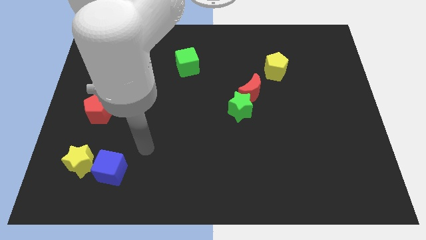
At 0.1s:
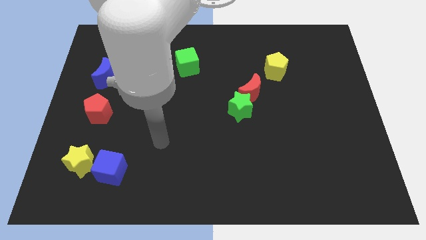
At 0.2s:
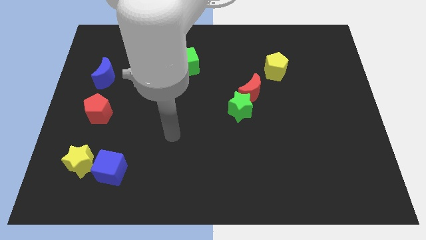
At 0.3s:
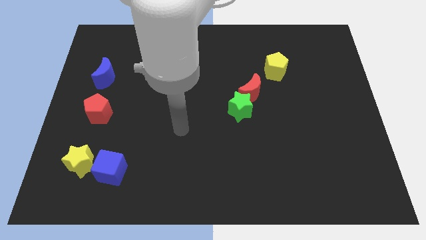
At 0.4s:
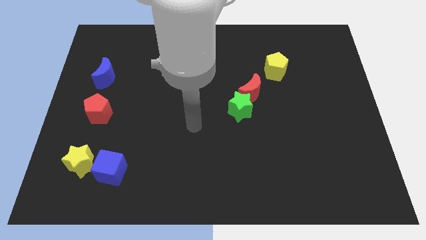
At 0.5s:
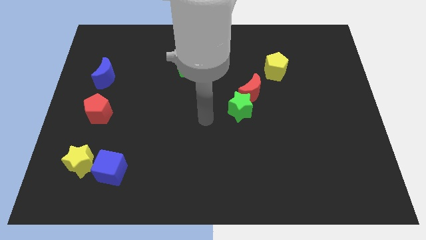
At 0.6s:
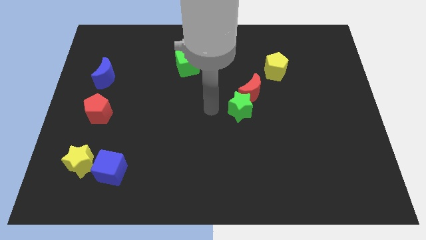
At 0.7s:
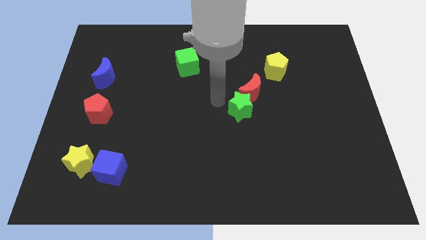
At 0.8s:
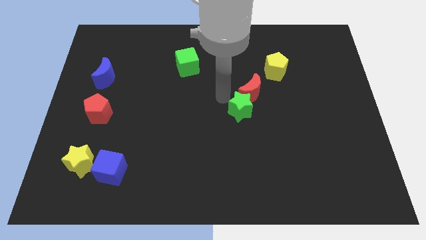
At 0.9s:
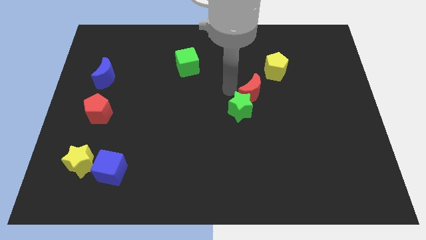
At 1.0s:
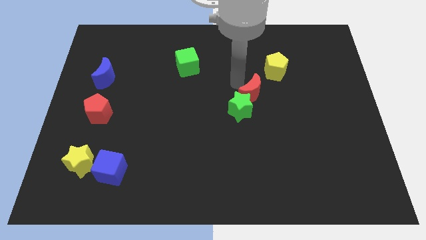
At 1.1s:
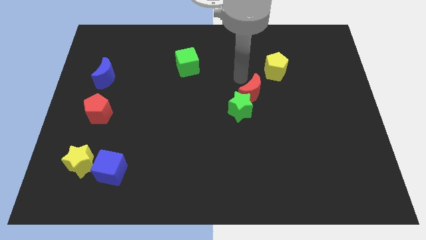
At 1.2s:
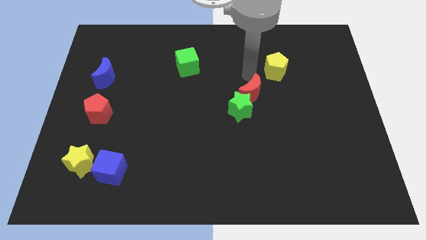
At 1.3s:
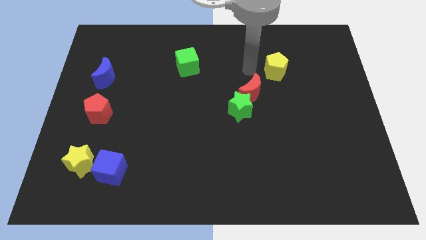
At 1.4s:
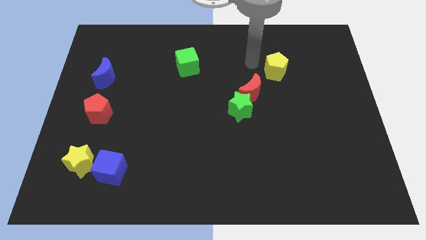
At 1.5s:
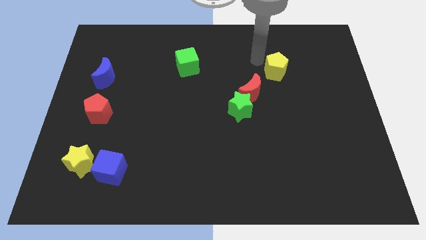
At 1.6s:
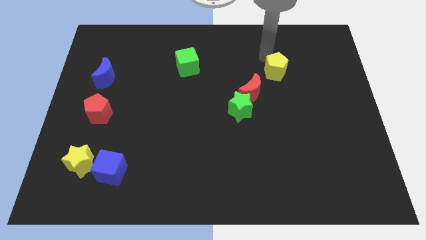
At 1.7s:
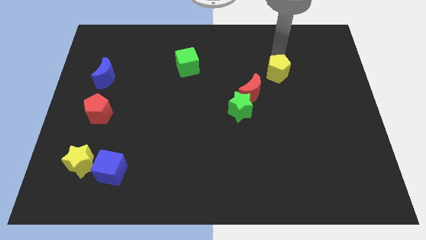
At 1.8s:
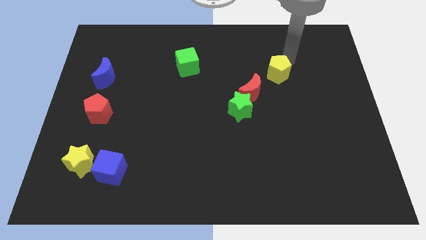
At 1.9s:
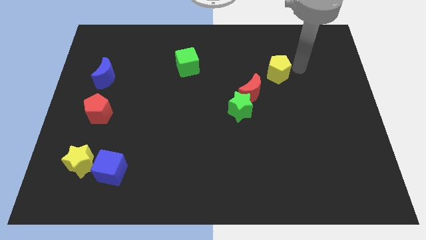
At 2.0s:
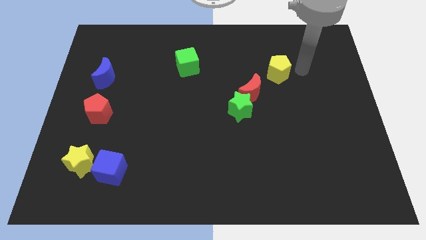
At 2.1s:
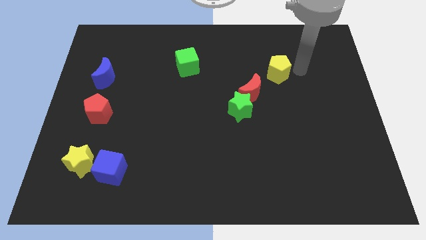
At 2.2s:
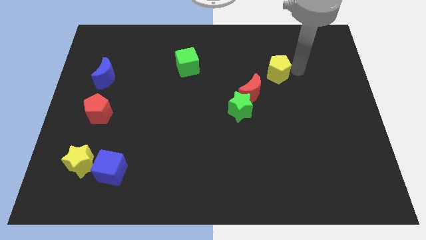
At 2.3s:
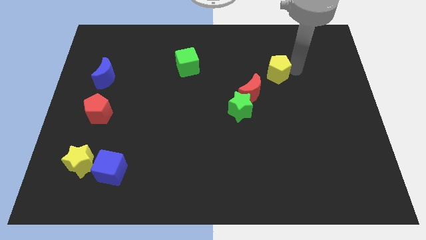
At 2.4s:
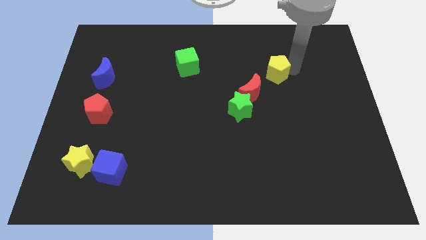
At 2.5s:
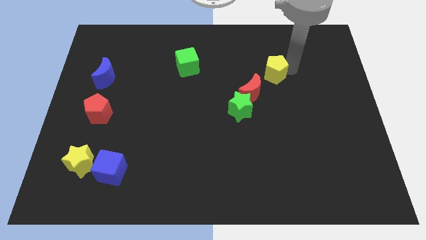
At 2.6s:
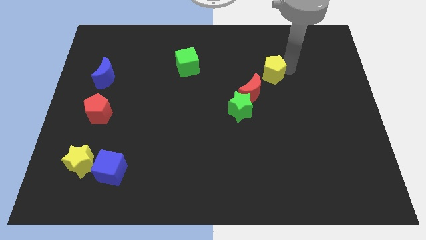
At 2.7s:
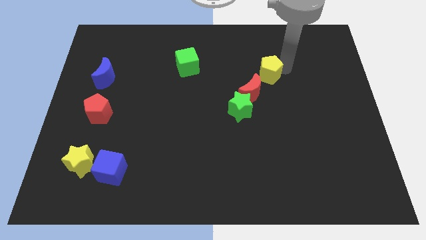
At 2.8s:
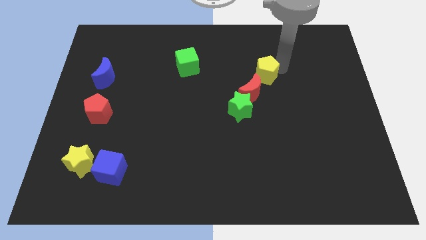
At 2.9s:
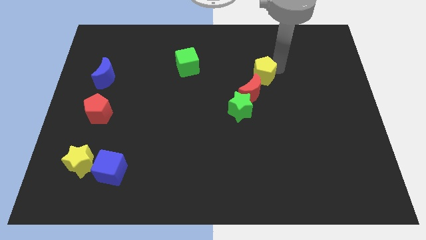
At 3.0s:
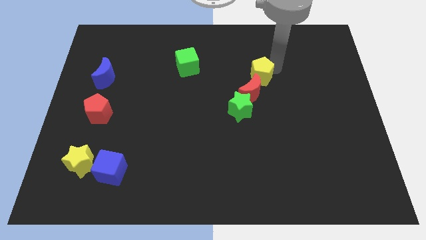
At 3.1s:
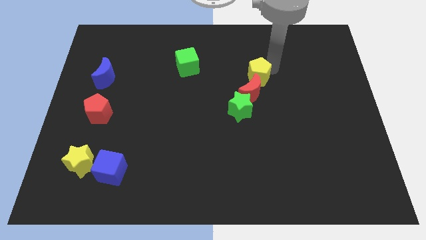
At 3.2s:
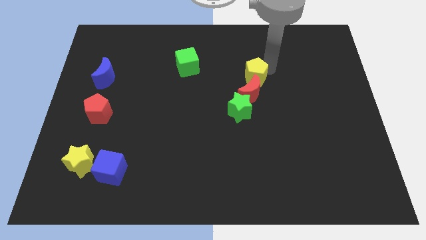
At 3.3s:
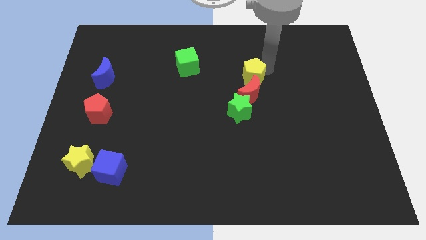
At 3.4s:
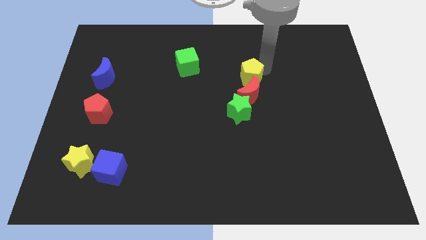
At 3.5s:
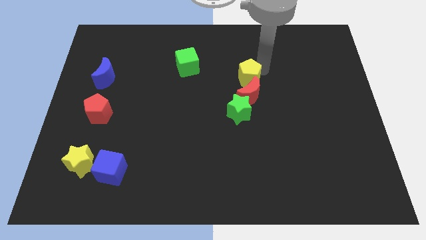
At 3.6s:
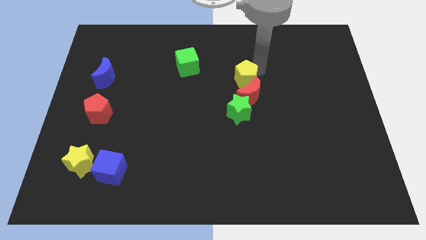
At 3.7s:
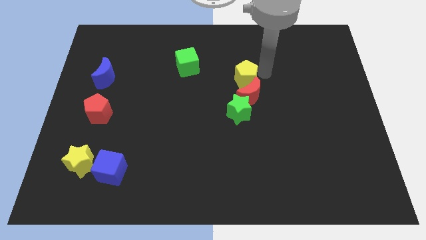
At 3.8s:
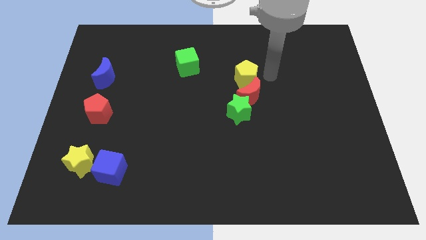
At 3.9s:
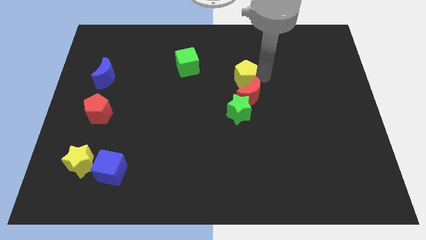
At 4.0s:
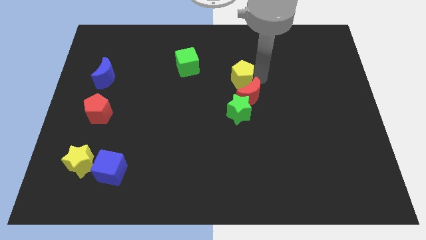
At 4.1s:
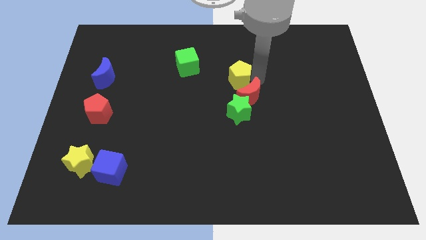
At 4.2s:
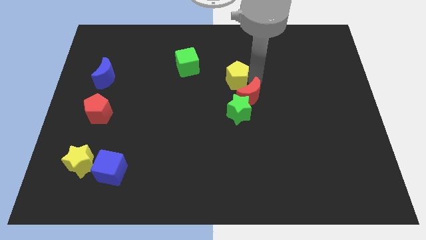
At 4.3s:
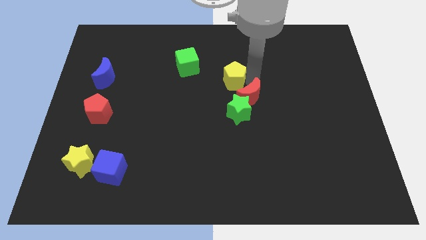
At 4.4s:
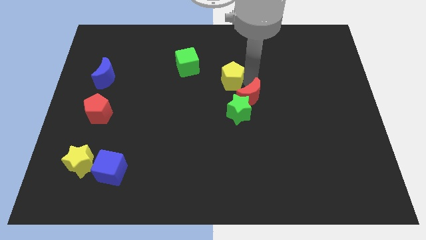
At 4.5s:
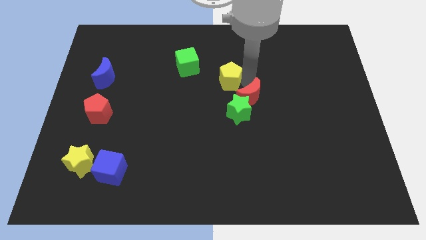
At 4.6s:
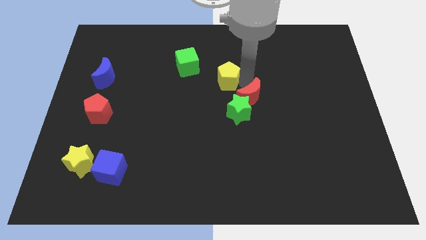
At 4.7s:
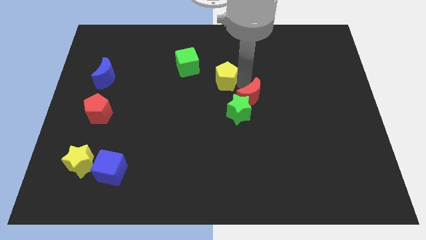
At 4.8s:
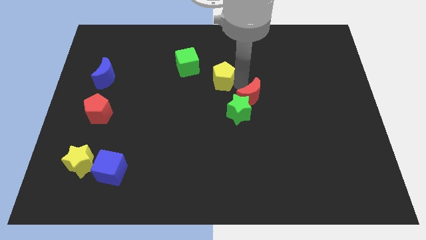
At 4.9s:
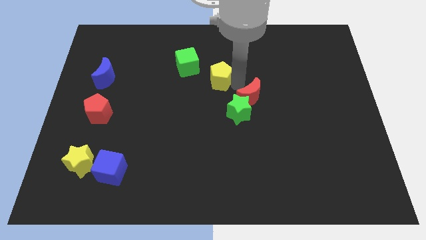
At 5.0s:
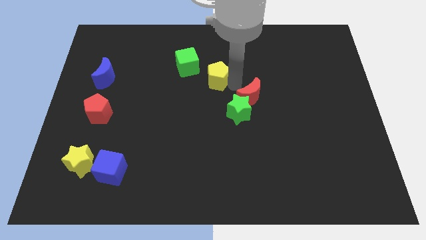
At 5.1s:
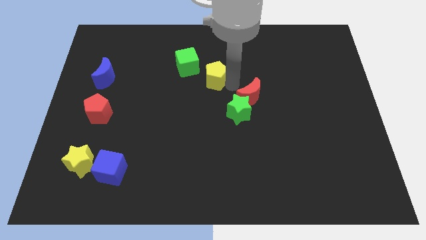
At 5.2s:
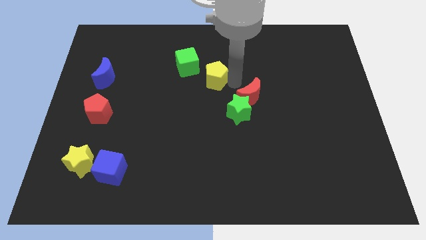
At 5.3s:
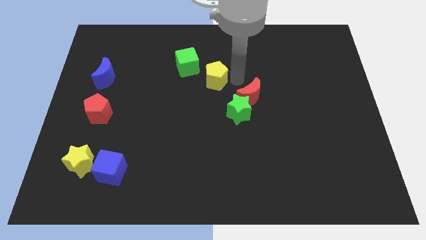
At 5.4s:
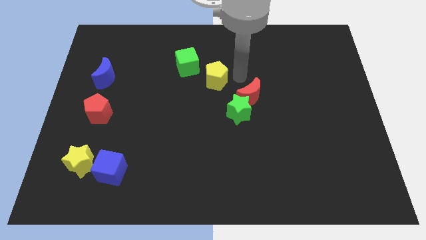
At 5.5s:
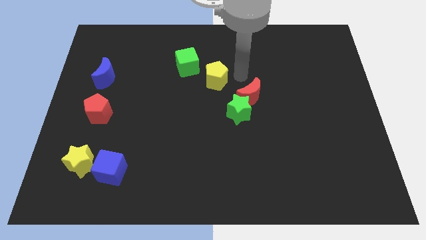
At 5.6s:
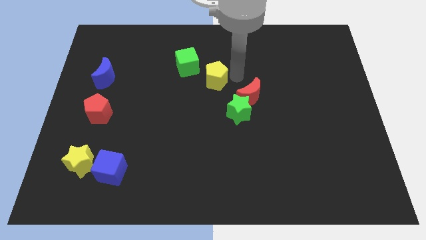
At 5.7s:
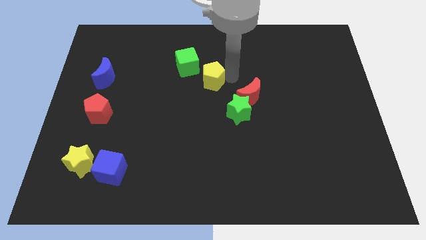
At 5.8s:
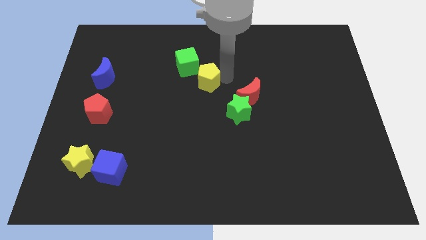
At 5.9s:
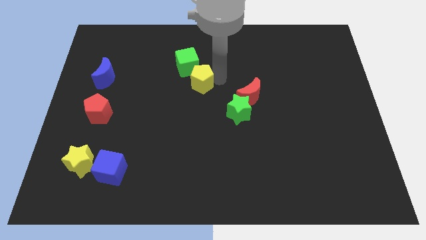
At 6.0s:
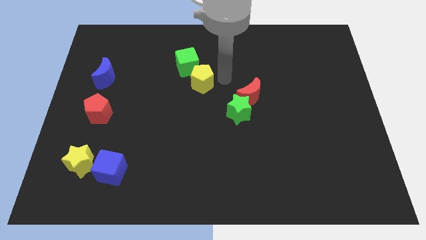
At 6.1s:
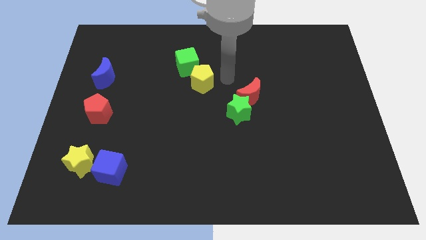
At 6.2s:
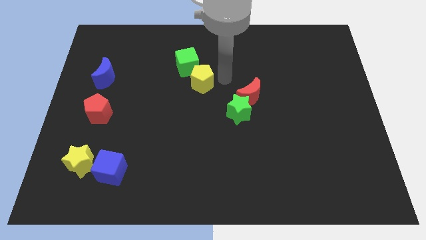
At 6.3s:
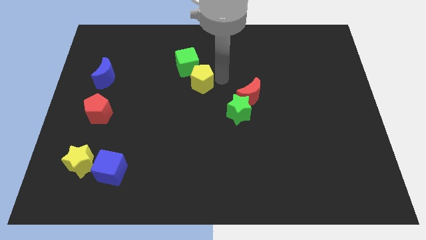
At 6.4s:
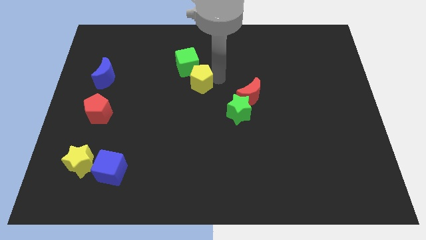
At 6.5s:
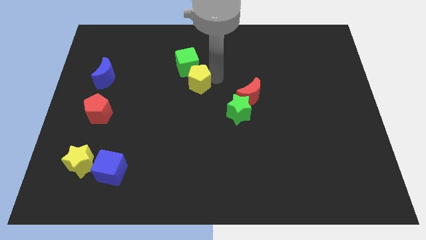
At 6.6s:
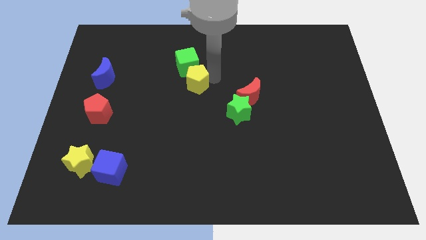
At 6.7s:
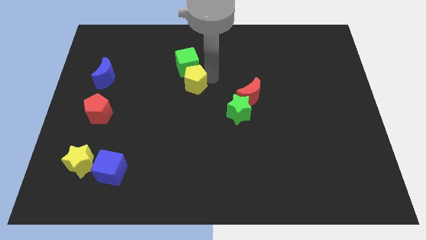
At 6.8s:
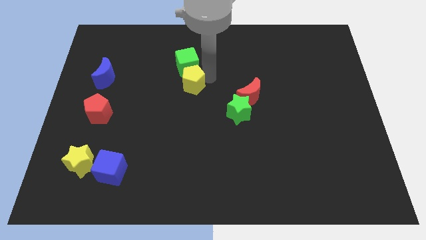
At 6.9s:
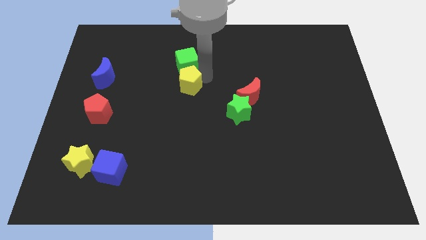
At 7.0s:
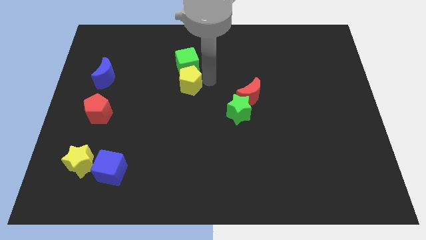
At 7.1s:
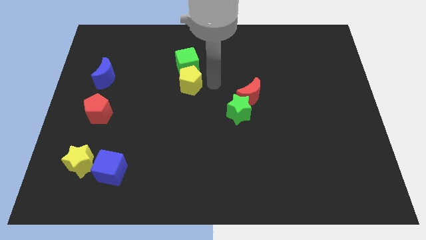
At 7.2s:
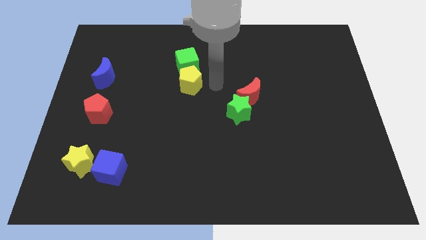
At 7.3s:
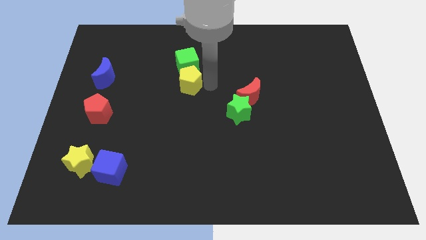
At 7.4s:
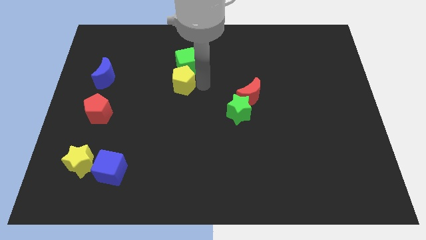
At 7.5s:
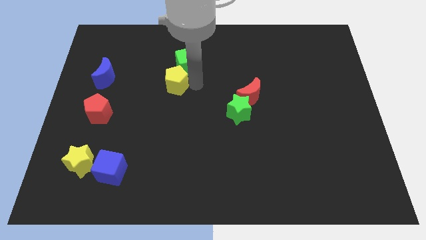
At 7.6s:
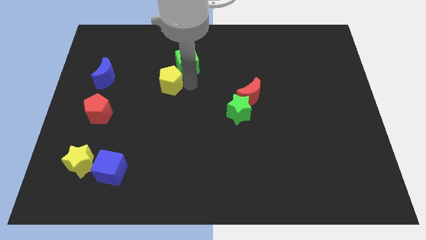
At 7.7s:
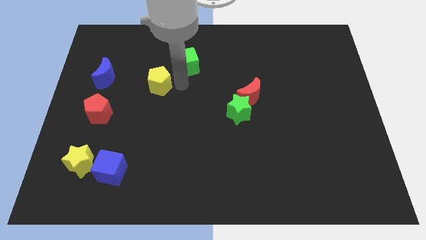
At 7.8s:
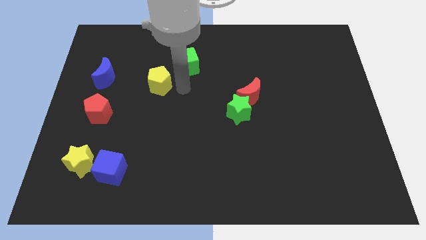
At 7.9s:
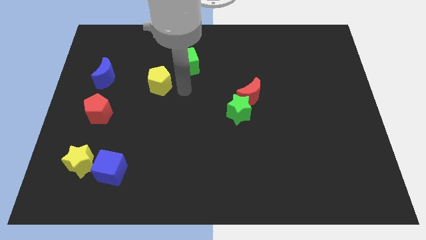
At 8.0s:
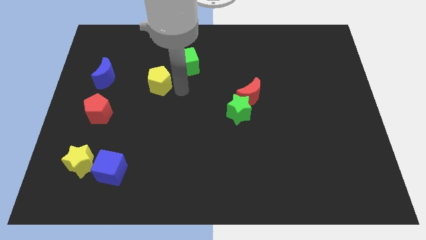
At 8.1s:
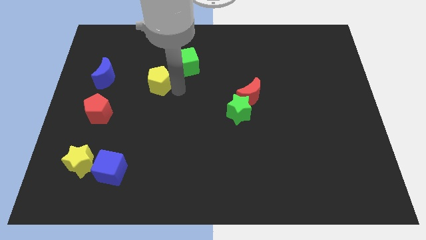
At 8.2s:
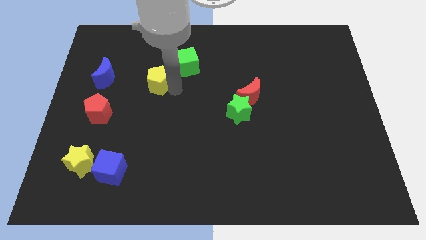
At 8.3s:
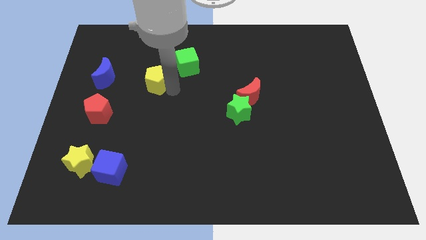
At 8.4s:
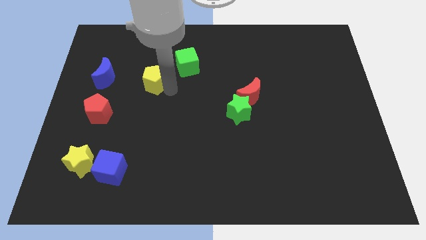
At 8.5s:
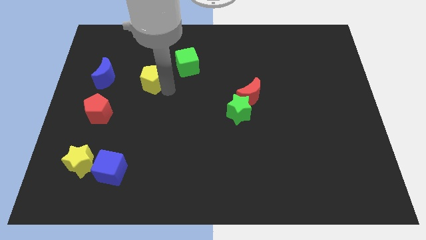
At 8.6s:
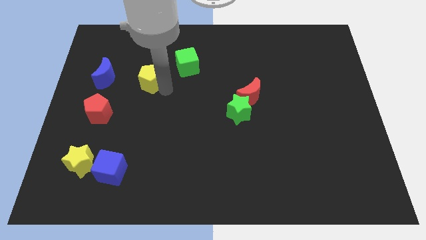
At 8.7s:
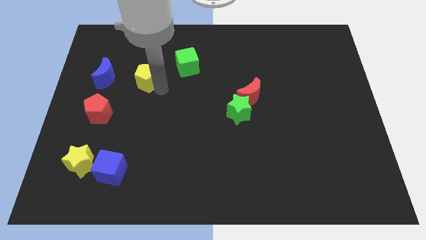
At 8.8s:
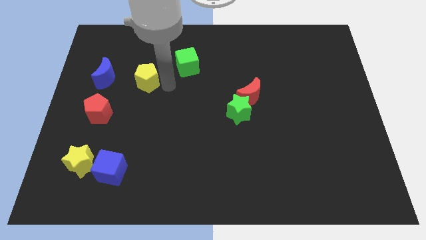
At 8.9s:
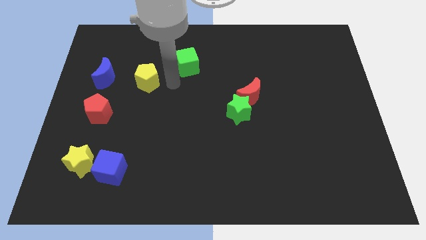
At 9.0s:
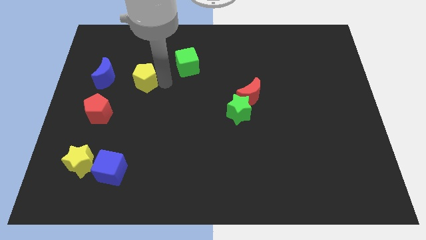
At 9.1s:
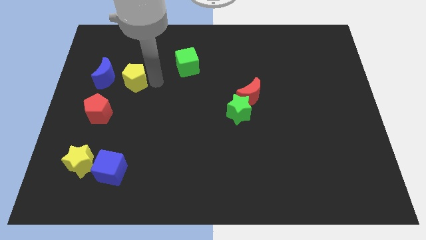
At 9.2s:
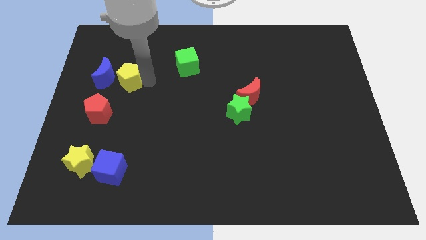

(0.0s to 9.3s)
push the yellow pentagon next to the blue moon
